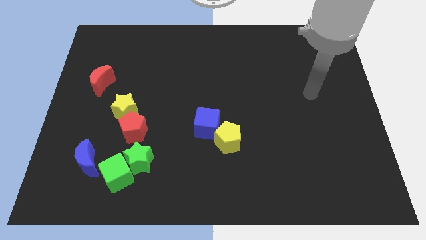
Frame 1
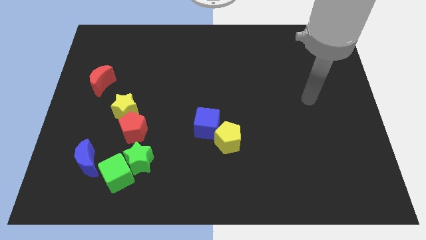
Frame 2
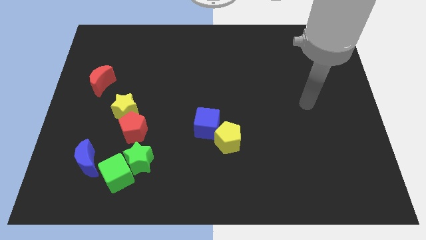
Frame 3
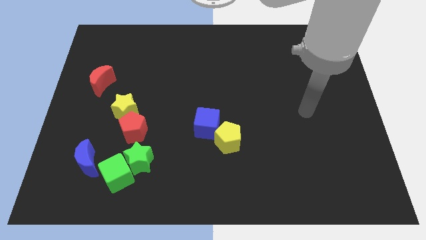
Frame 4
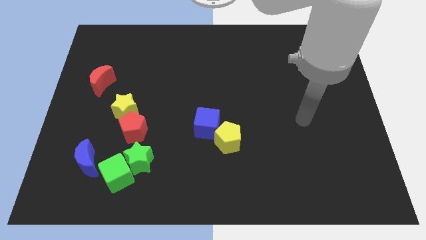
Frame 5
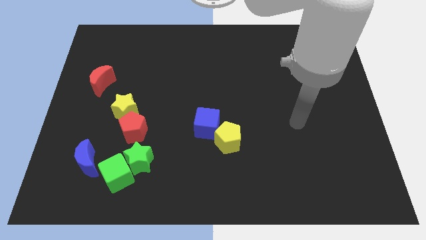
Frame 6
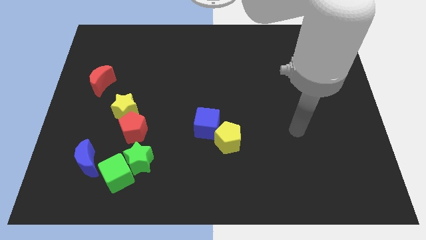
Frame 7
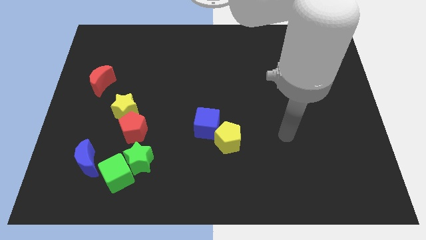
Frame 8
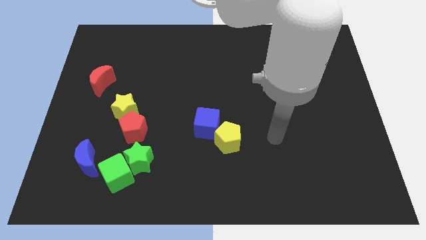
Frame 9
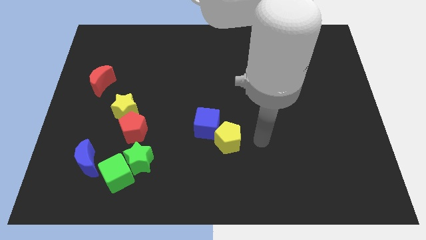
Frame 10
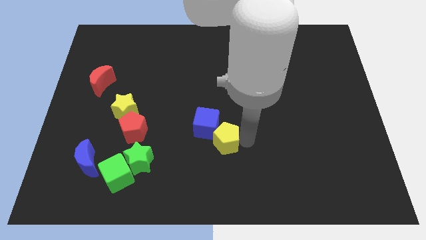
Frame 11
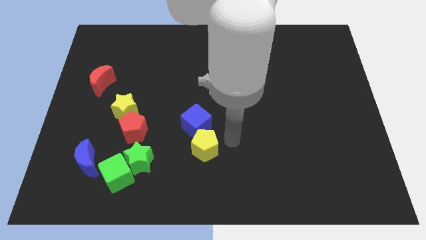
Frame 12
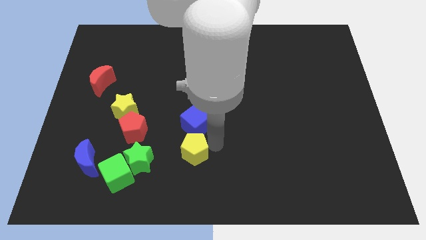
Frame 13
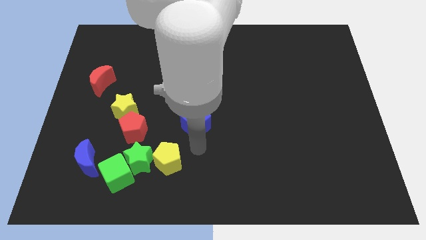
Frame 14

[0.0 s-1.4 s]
move the blue cube away from the yellow pentagon

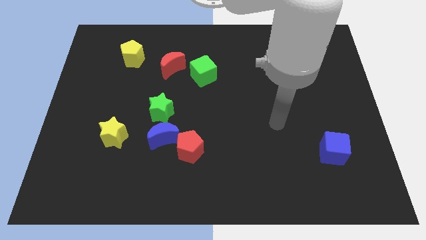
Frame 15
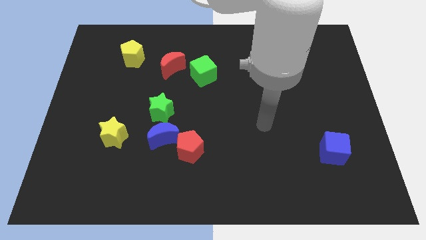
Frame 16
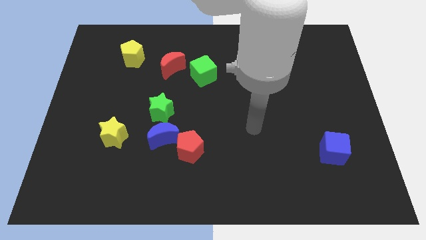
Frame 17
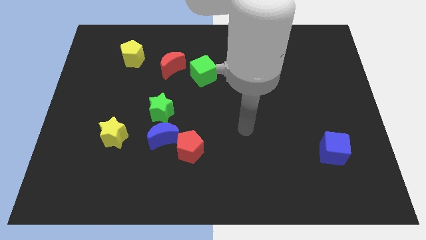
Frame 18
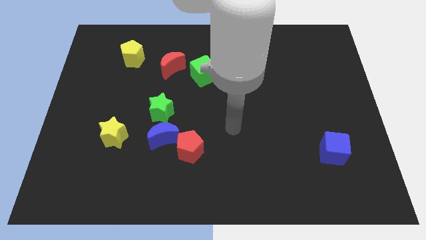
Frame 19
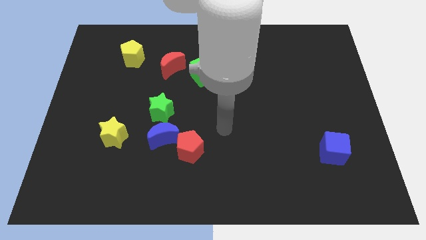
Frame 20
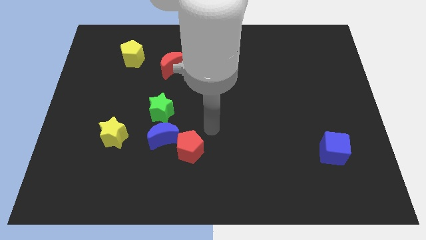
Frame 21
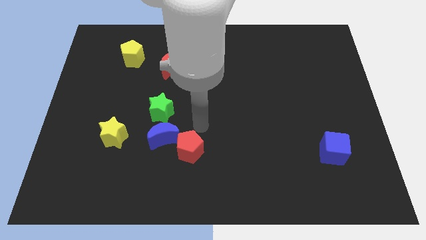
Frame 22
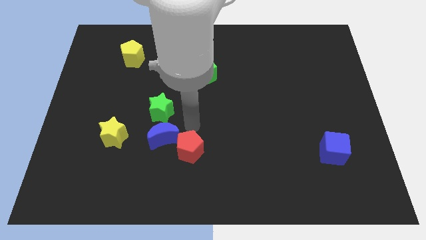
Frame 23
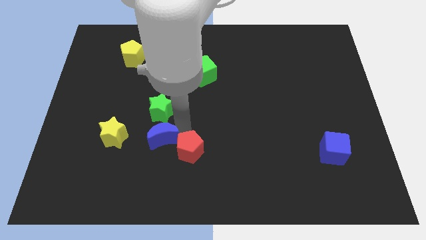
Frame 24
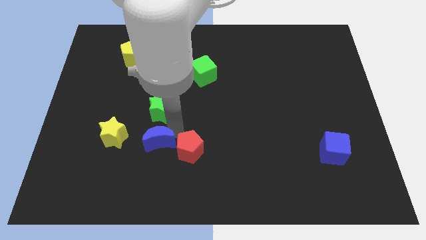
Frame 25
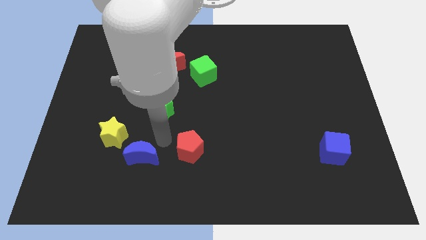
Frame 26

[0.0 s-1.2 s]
separate the red pentagon from the blue moon

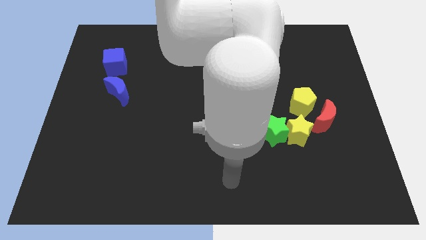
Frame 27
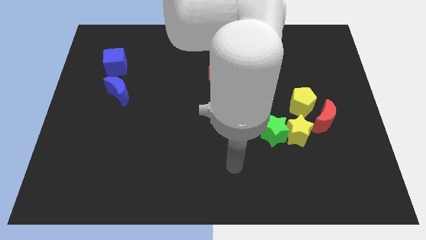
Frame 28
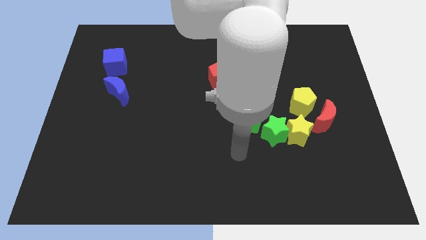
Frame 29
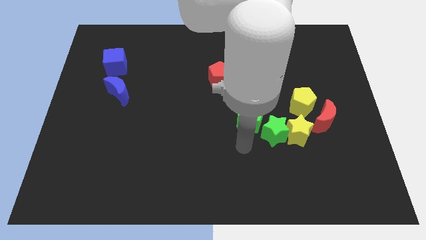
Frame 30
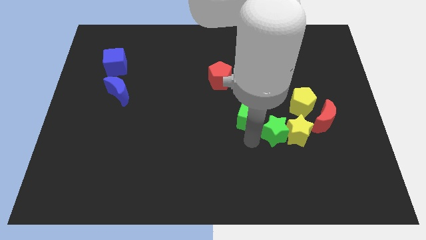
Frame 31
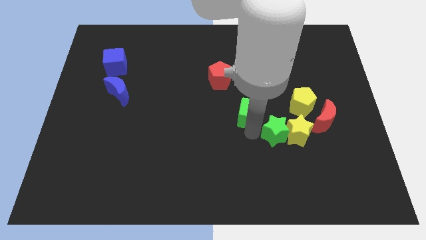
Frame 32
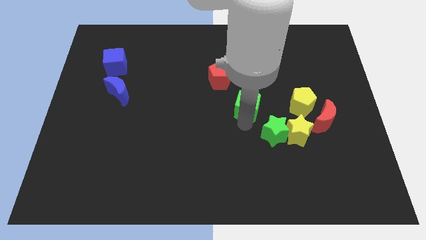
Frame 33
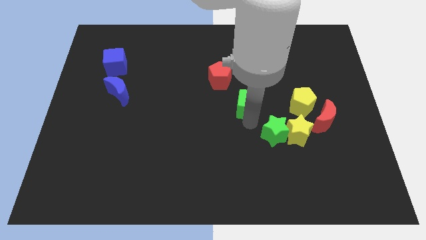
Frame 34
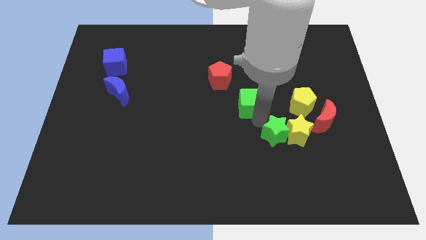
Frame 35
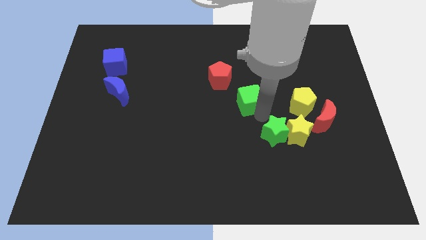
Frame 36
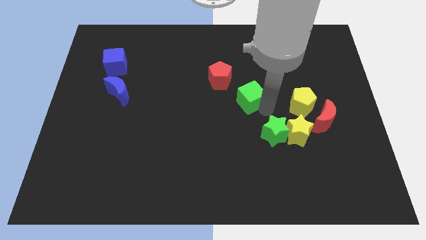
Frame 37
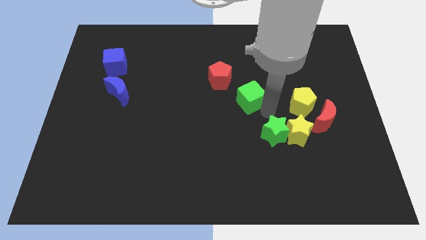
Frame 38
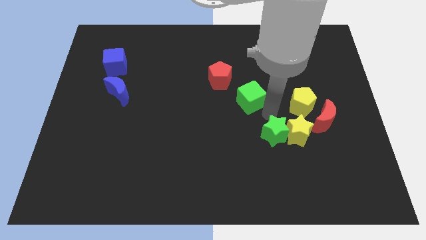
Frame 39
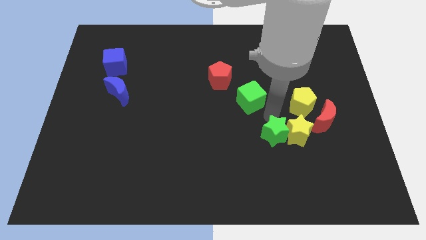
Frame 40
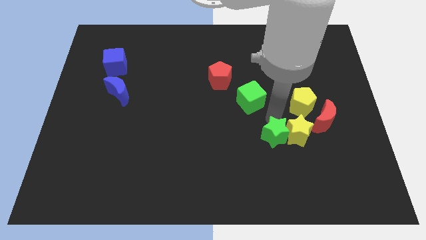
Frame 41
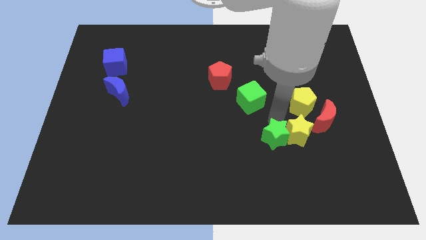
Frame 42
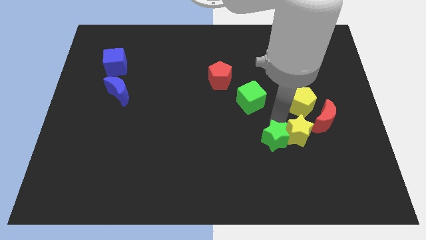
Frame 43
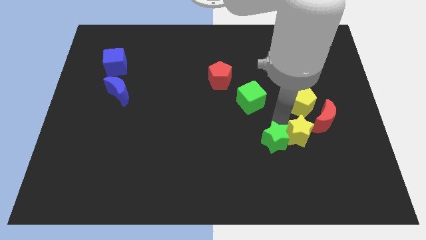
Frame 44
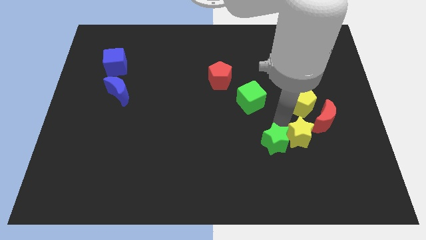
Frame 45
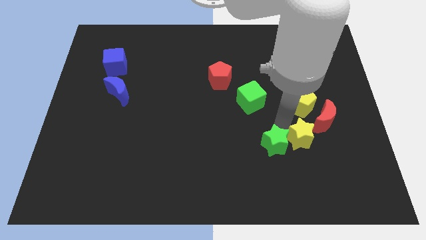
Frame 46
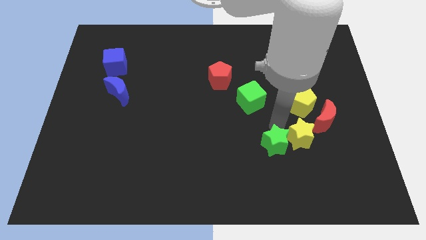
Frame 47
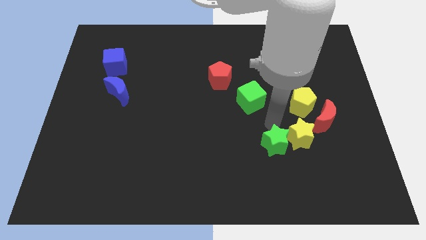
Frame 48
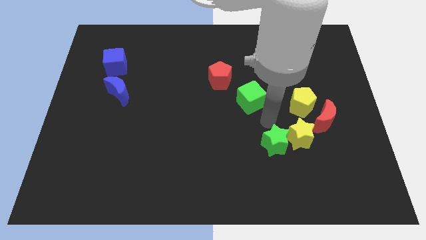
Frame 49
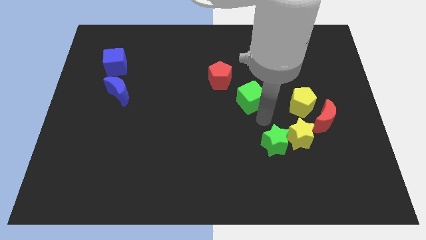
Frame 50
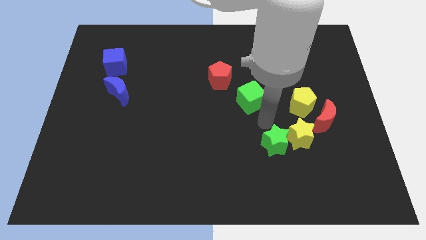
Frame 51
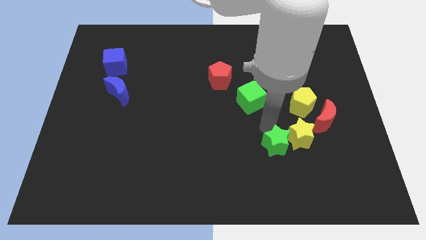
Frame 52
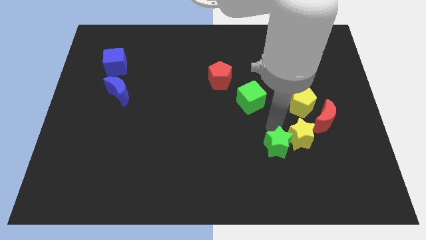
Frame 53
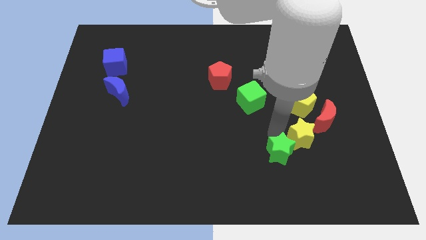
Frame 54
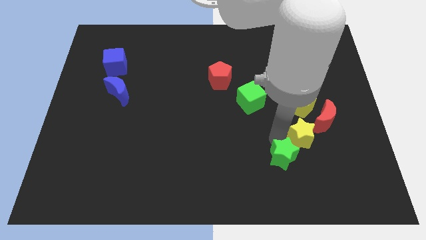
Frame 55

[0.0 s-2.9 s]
separate the green star from the yellow star and green cube

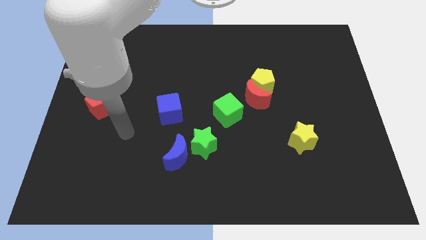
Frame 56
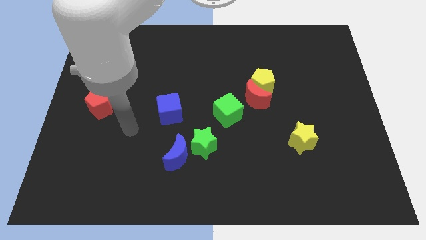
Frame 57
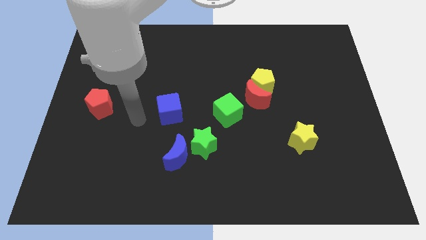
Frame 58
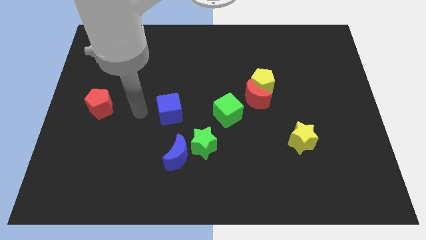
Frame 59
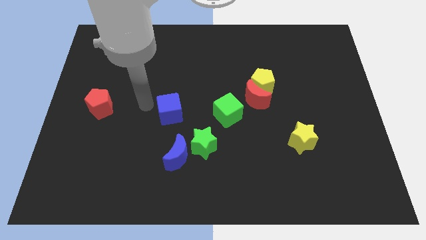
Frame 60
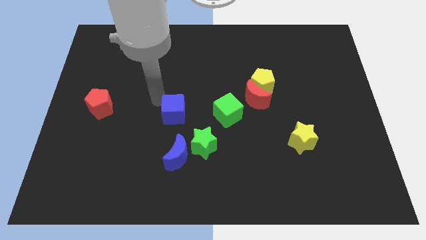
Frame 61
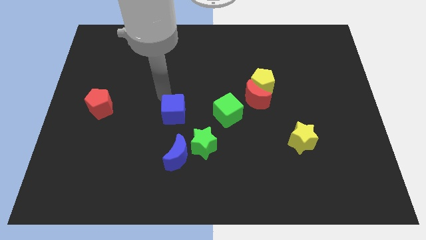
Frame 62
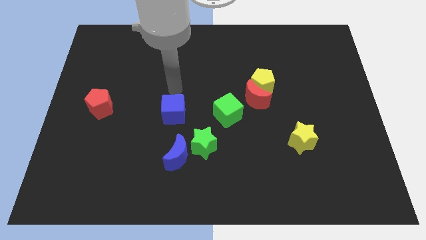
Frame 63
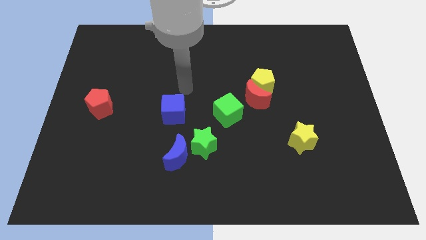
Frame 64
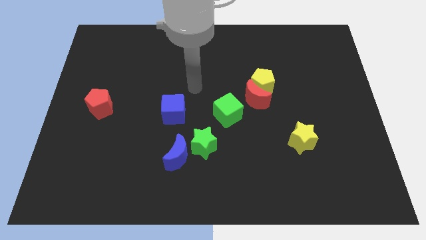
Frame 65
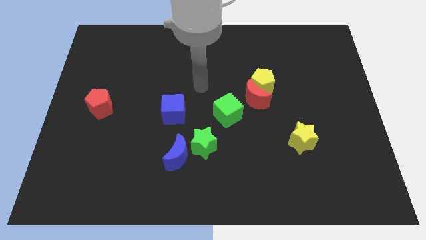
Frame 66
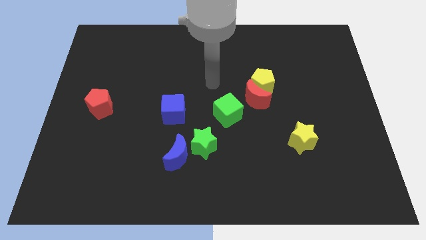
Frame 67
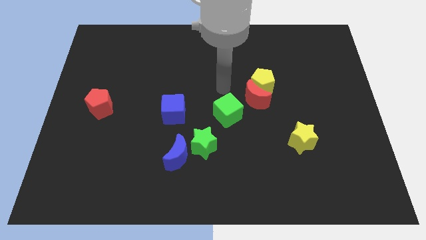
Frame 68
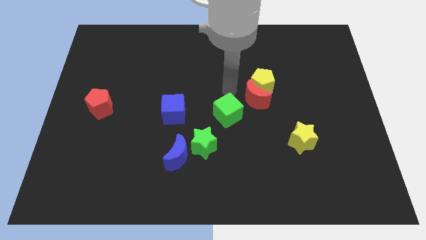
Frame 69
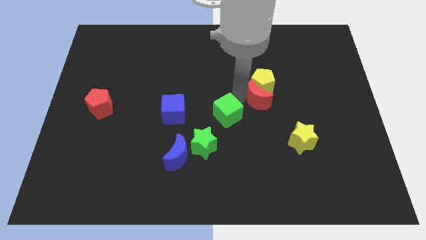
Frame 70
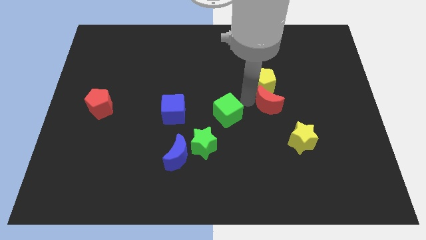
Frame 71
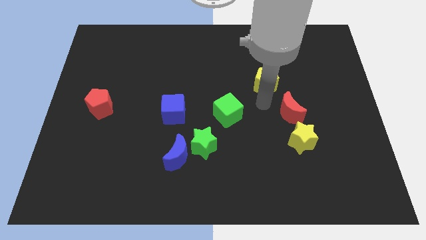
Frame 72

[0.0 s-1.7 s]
pull the yellow pentagon apart from the red moon

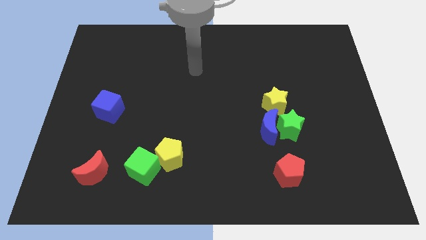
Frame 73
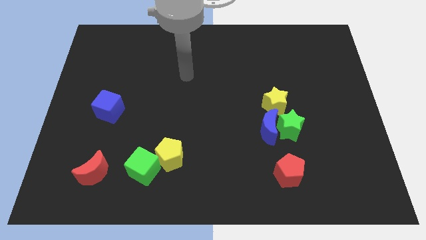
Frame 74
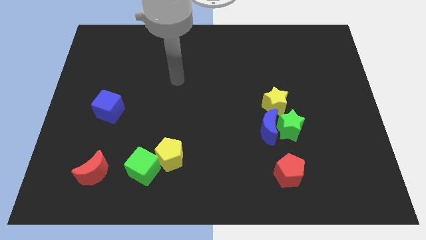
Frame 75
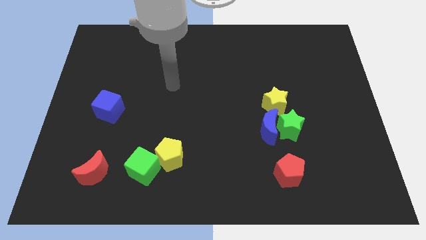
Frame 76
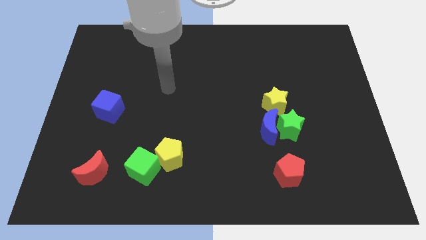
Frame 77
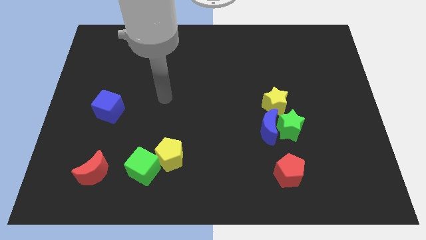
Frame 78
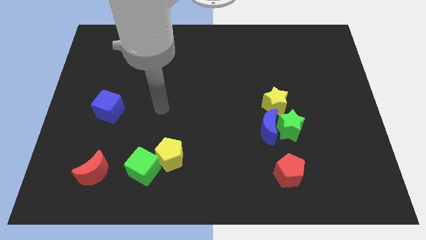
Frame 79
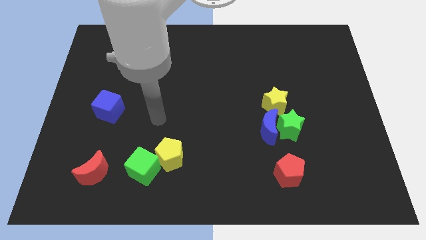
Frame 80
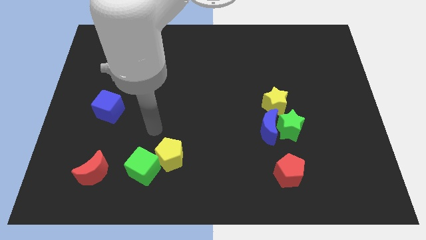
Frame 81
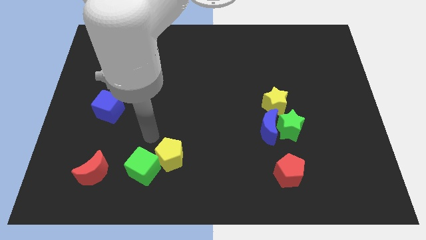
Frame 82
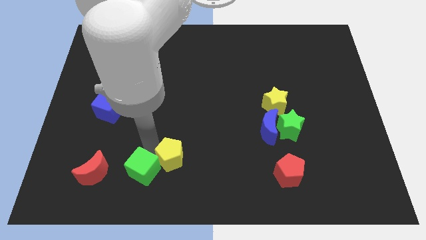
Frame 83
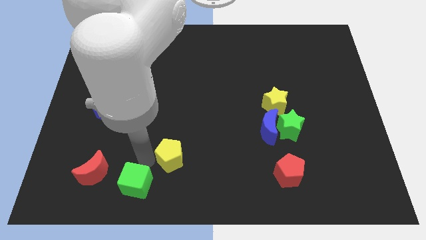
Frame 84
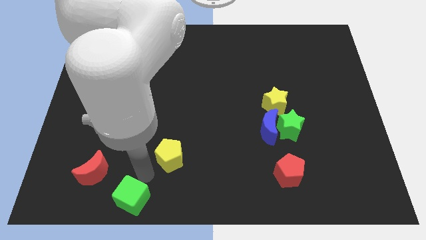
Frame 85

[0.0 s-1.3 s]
pull the yellow pentagon apart from the green cube

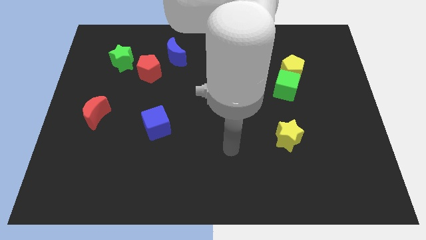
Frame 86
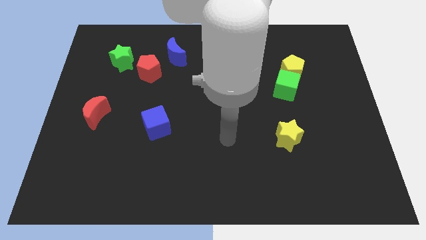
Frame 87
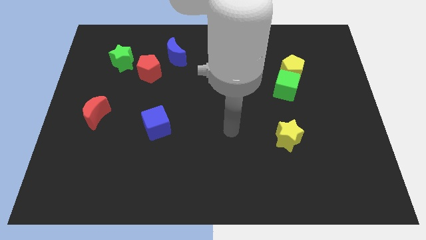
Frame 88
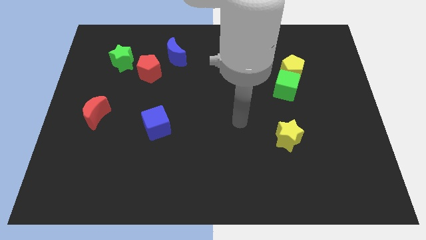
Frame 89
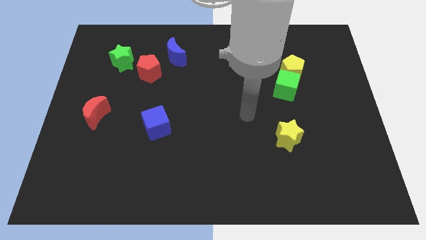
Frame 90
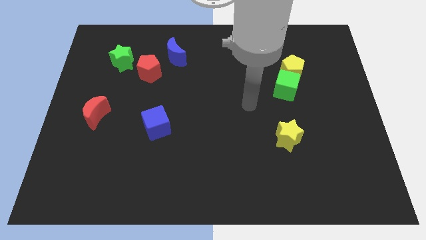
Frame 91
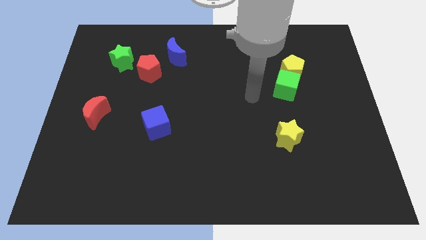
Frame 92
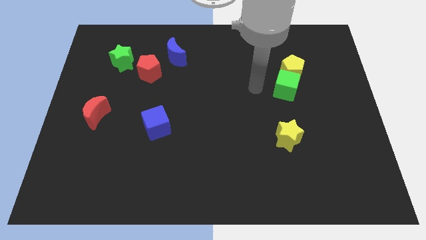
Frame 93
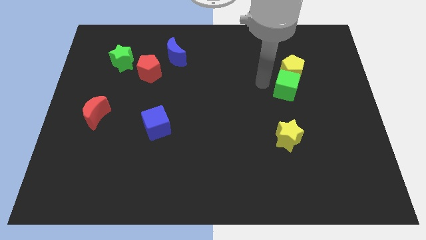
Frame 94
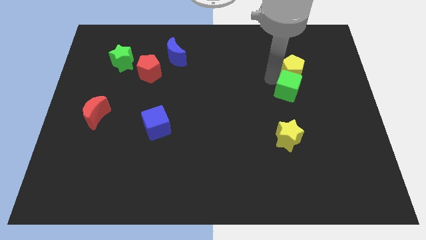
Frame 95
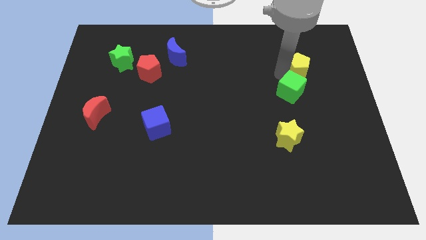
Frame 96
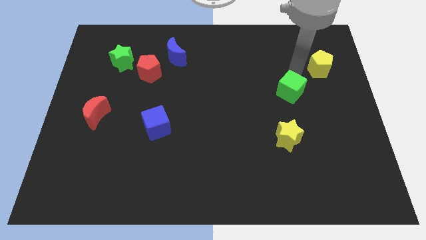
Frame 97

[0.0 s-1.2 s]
move the green cube away from the yellow pentagon
